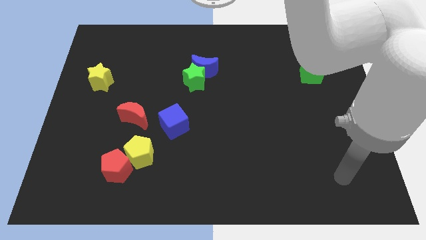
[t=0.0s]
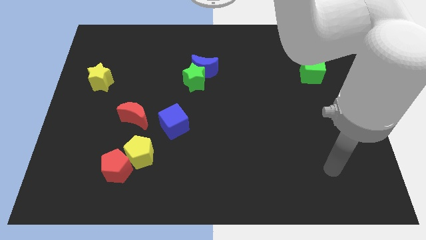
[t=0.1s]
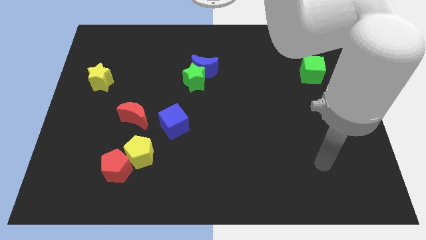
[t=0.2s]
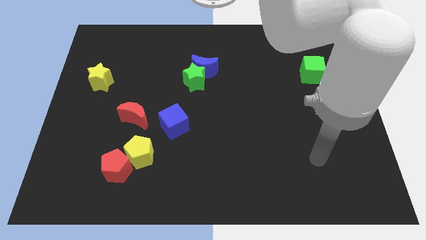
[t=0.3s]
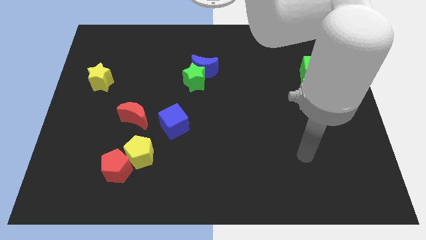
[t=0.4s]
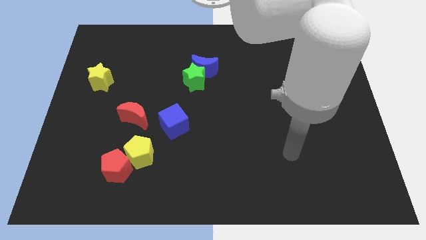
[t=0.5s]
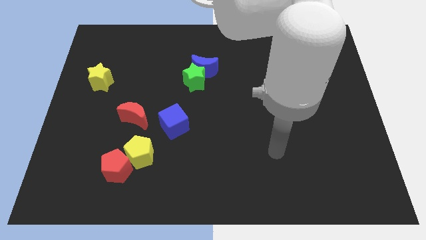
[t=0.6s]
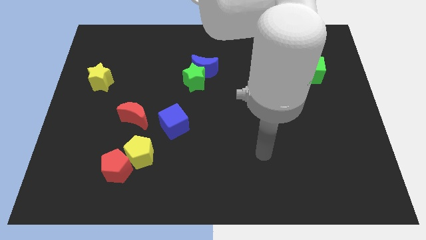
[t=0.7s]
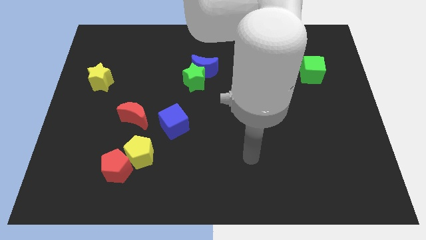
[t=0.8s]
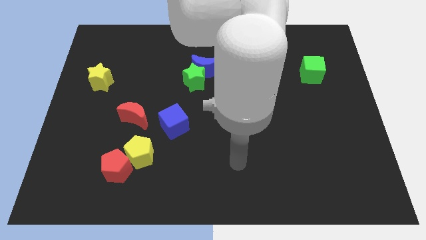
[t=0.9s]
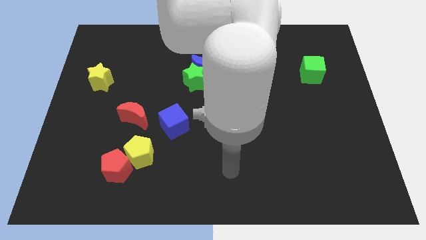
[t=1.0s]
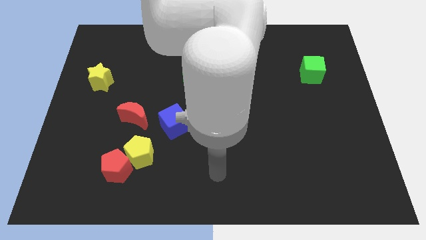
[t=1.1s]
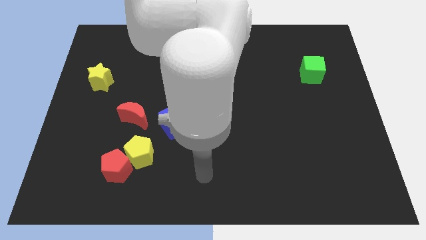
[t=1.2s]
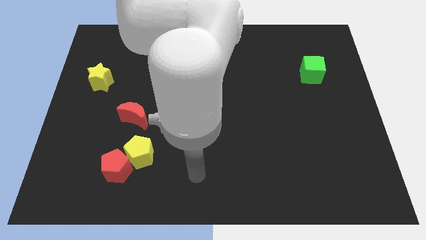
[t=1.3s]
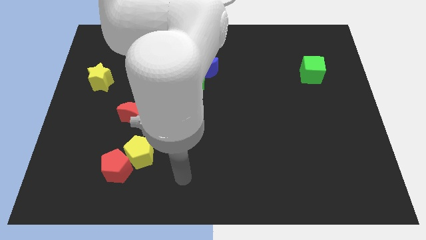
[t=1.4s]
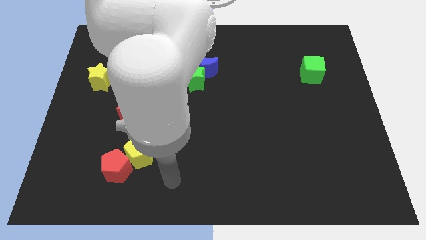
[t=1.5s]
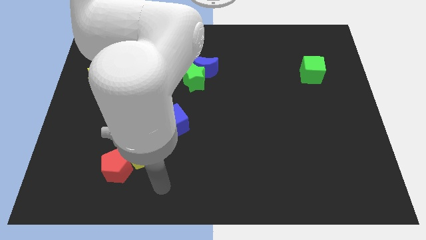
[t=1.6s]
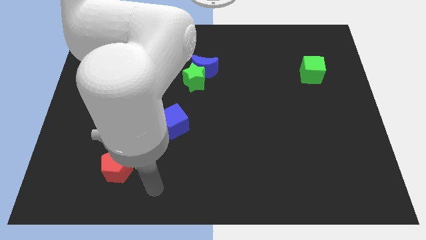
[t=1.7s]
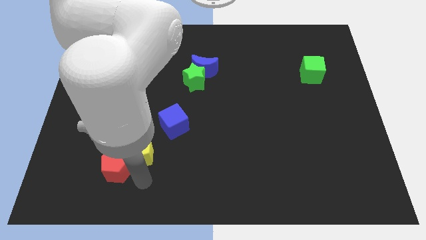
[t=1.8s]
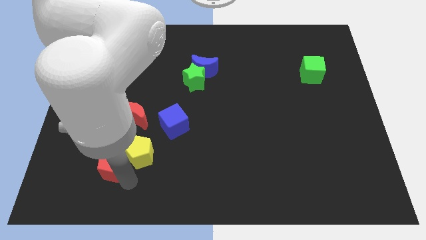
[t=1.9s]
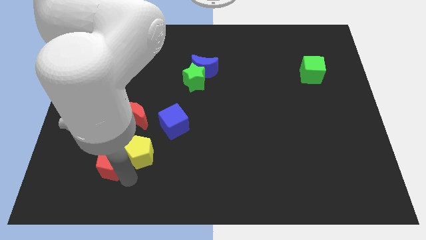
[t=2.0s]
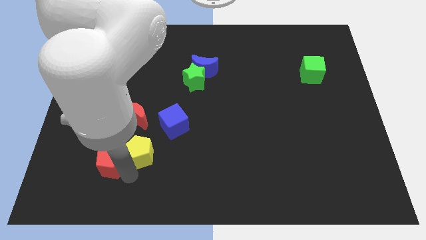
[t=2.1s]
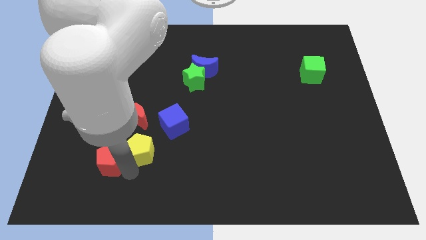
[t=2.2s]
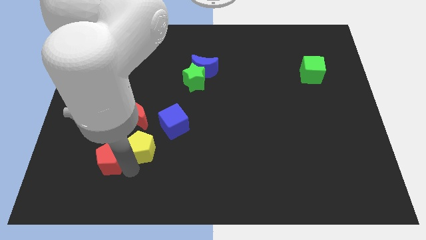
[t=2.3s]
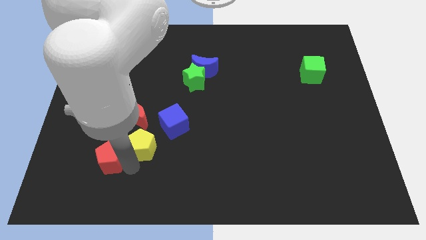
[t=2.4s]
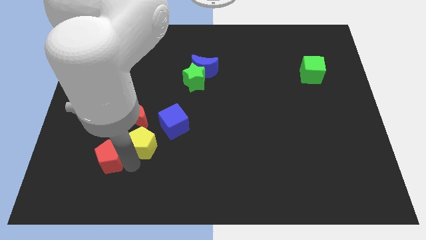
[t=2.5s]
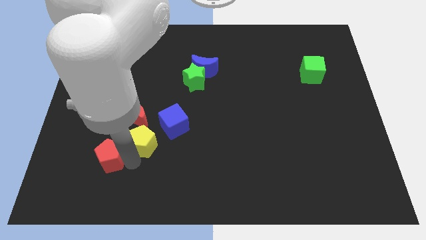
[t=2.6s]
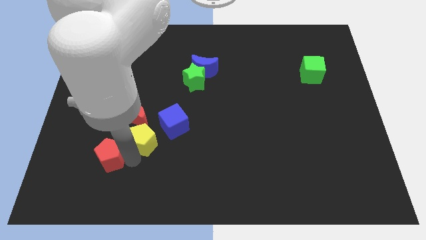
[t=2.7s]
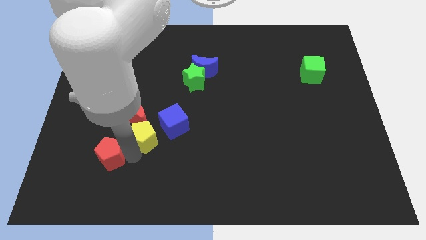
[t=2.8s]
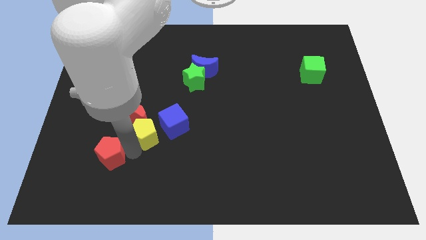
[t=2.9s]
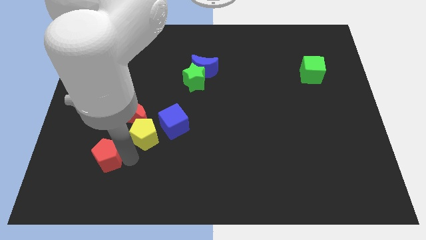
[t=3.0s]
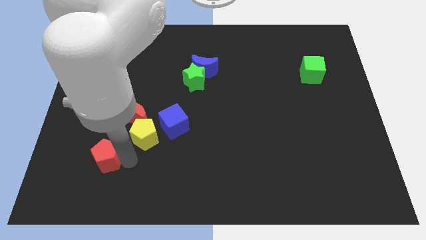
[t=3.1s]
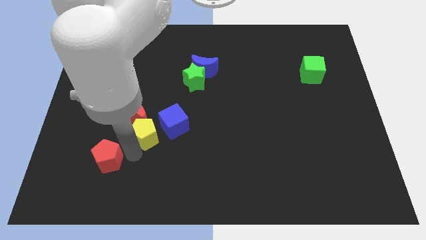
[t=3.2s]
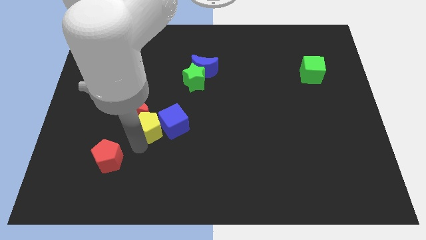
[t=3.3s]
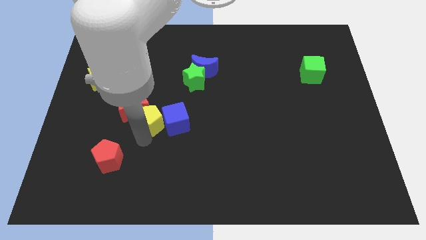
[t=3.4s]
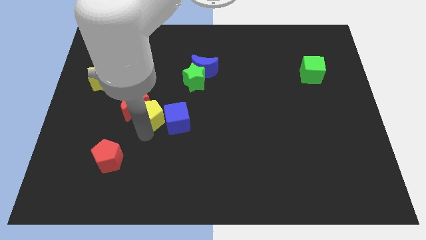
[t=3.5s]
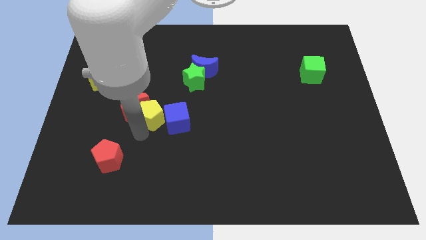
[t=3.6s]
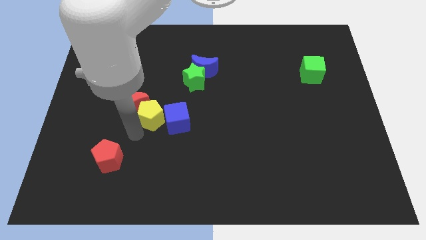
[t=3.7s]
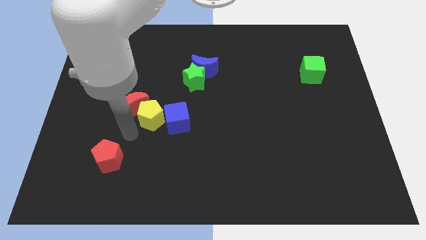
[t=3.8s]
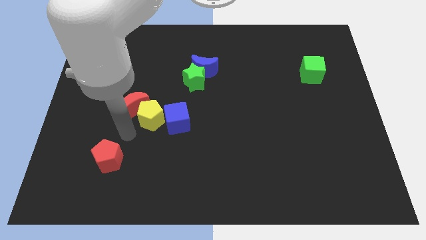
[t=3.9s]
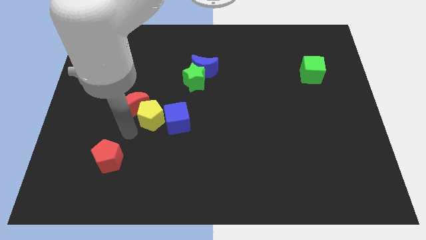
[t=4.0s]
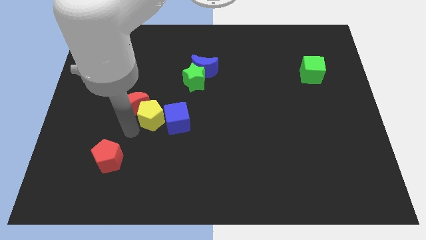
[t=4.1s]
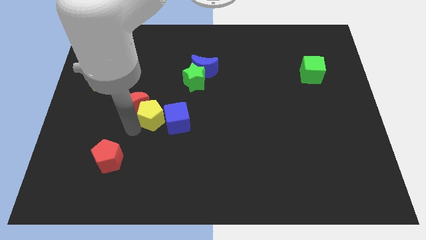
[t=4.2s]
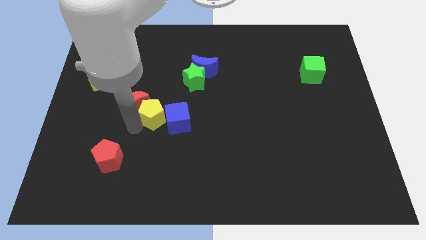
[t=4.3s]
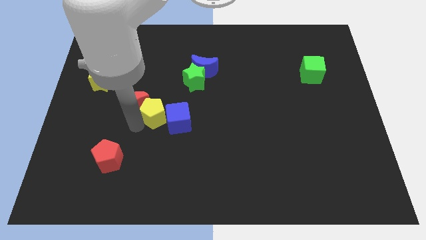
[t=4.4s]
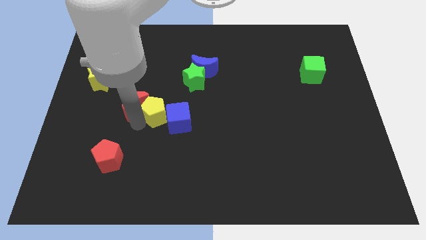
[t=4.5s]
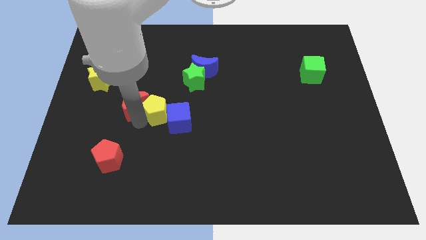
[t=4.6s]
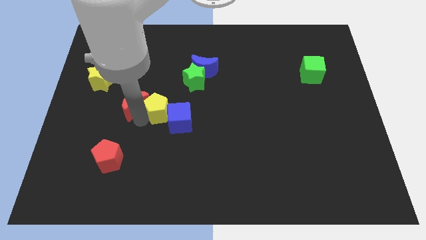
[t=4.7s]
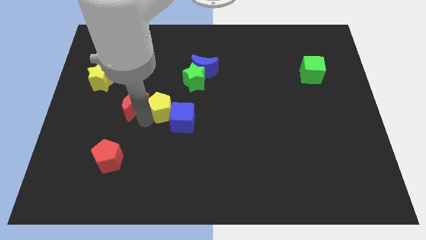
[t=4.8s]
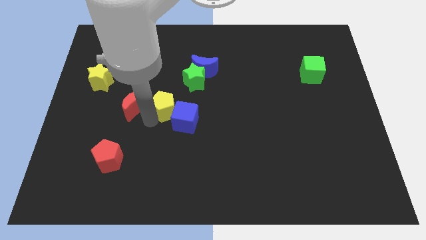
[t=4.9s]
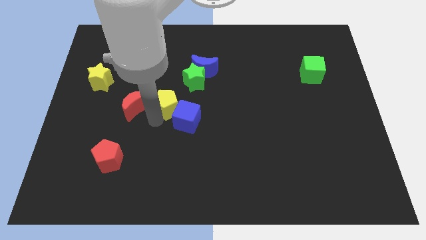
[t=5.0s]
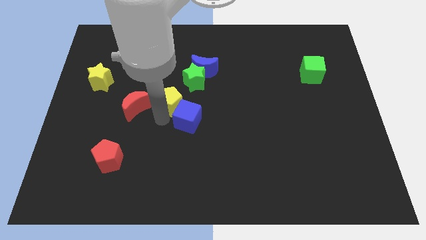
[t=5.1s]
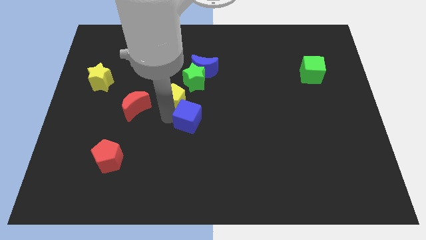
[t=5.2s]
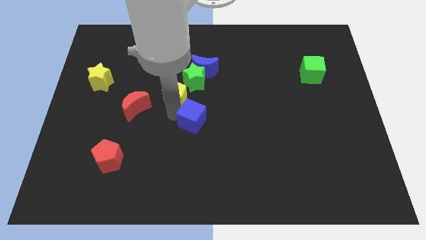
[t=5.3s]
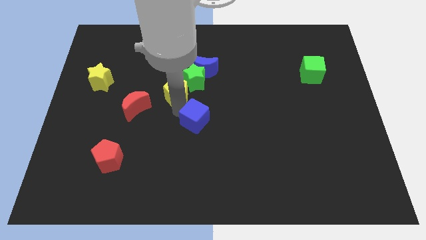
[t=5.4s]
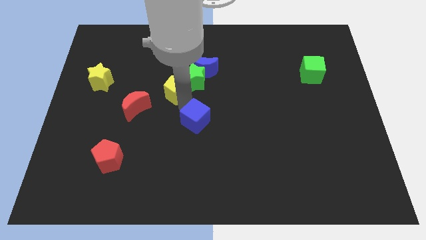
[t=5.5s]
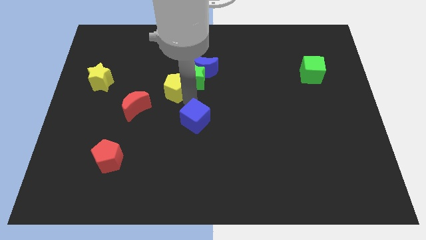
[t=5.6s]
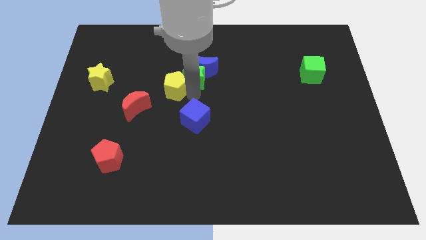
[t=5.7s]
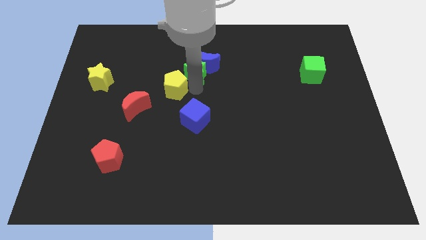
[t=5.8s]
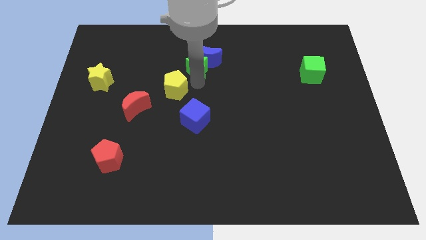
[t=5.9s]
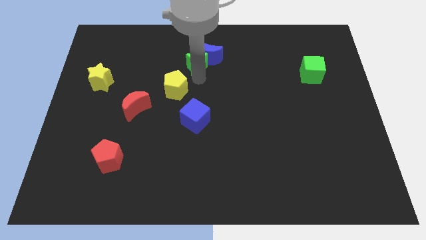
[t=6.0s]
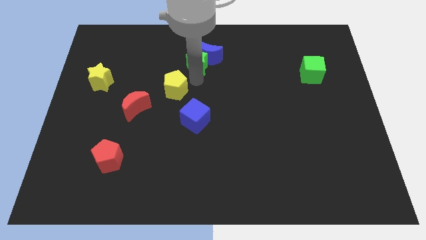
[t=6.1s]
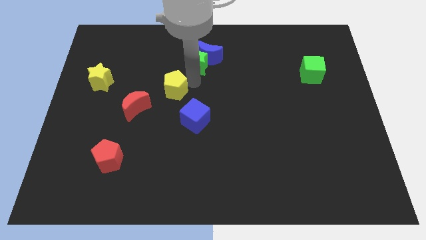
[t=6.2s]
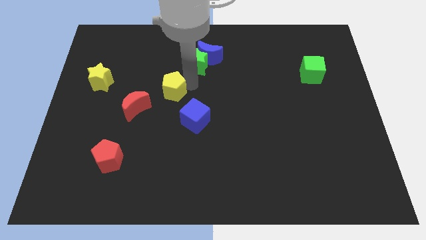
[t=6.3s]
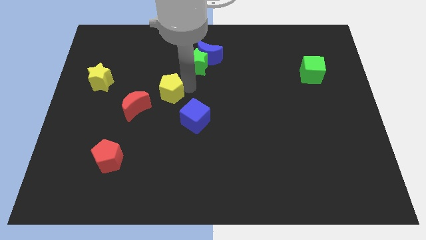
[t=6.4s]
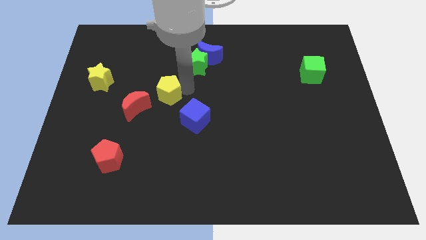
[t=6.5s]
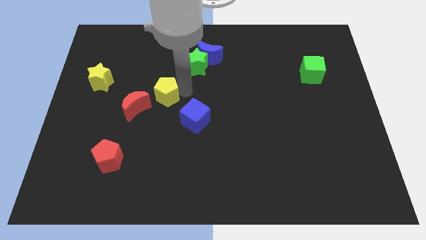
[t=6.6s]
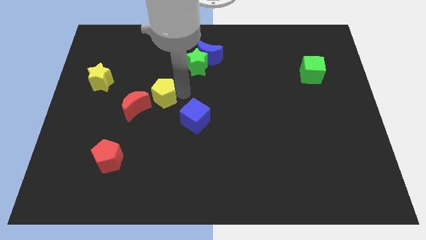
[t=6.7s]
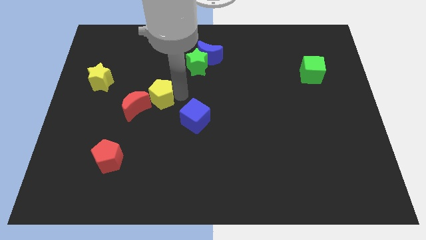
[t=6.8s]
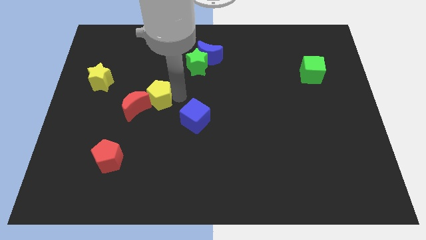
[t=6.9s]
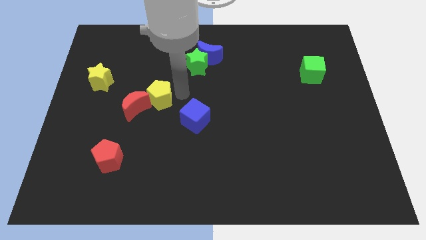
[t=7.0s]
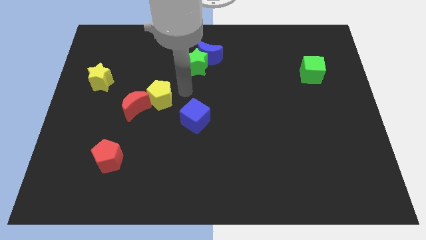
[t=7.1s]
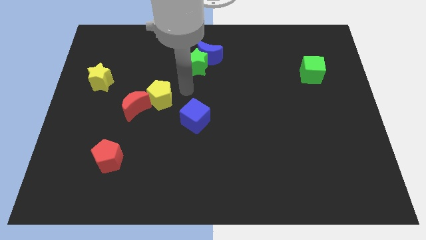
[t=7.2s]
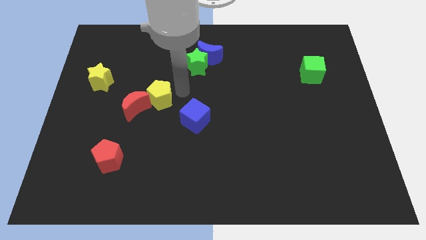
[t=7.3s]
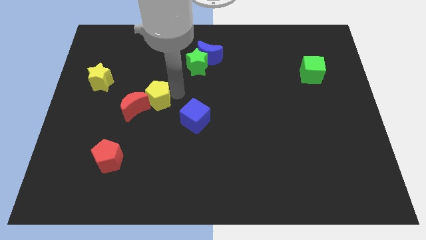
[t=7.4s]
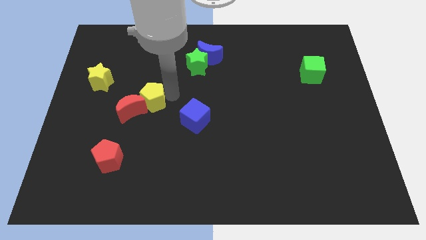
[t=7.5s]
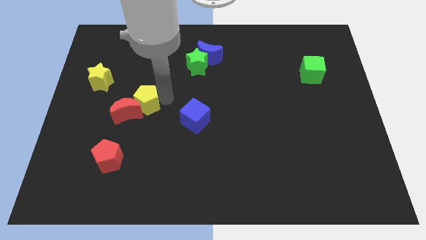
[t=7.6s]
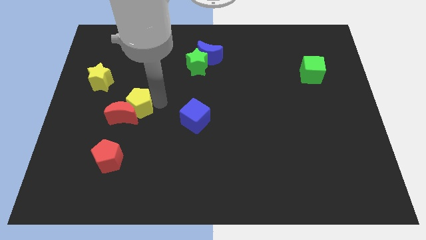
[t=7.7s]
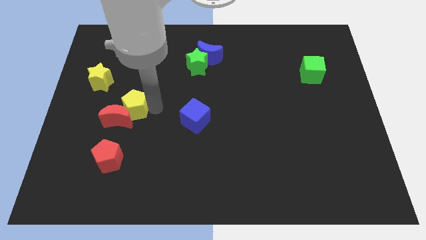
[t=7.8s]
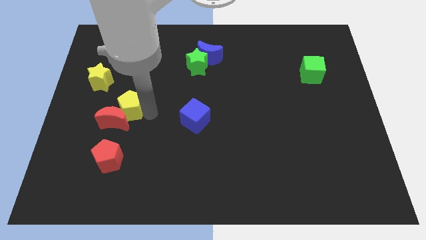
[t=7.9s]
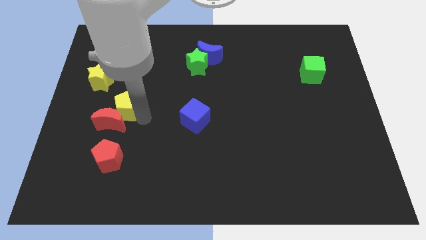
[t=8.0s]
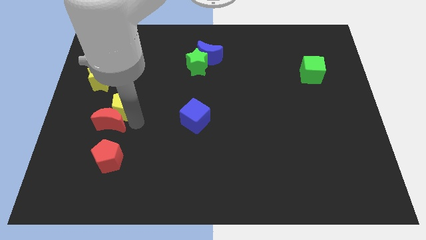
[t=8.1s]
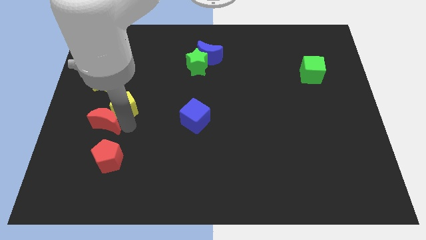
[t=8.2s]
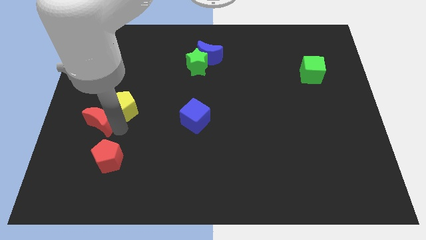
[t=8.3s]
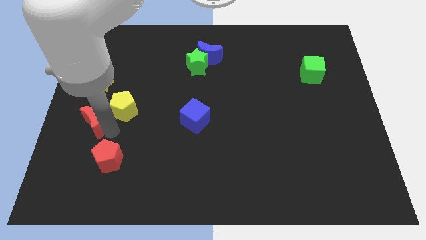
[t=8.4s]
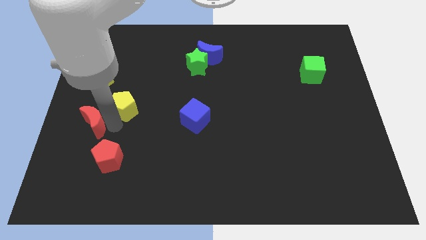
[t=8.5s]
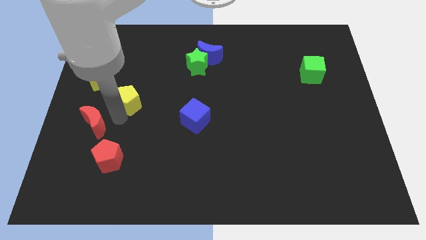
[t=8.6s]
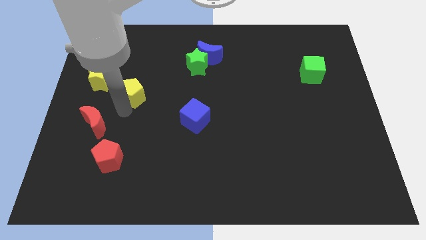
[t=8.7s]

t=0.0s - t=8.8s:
move the yellow pentagon right of the yellow star
